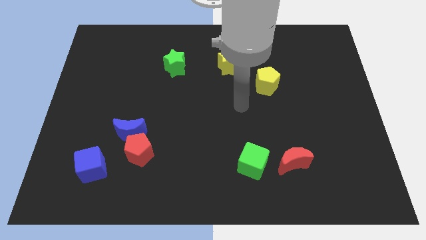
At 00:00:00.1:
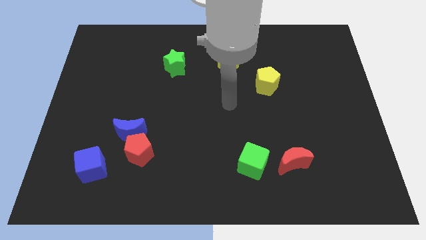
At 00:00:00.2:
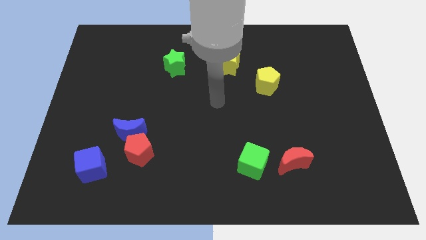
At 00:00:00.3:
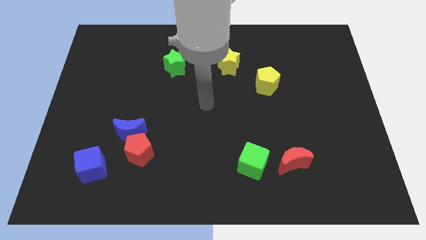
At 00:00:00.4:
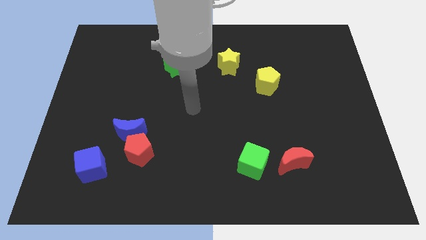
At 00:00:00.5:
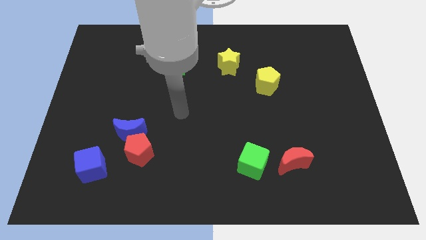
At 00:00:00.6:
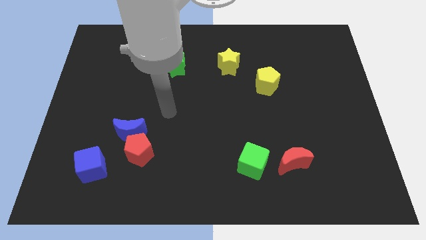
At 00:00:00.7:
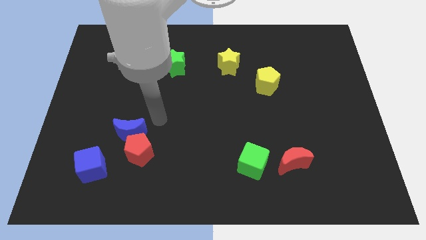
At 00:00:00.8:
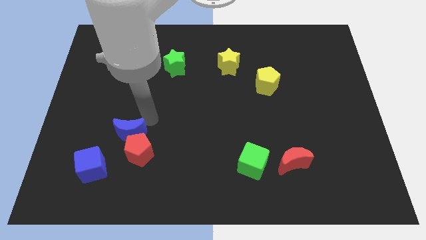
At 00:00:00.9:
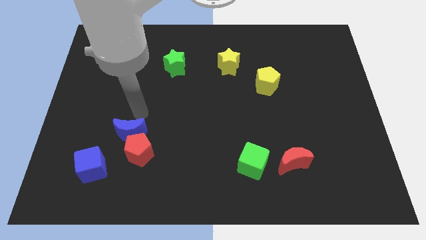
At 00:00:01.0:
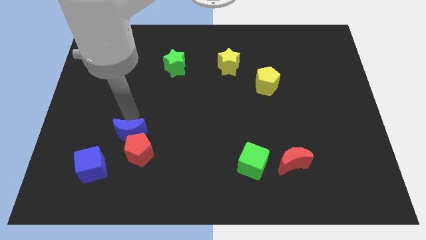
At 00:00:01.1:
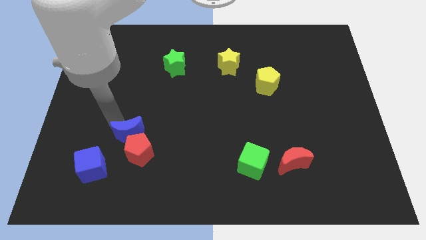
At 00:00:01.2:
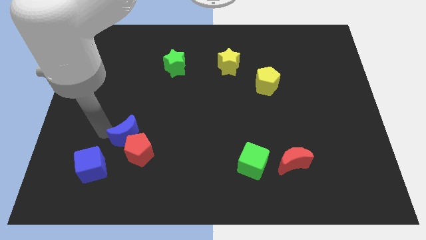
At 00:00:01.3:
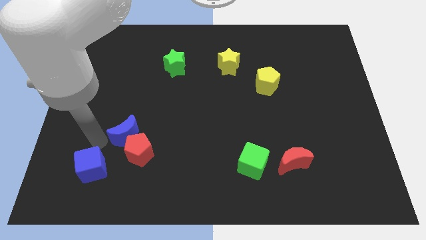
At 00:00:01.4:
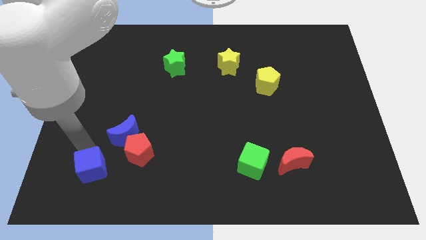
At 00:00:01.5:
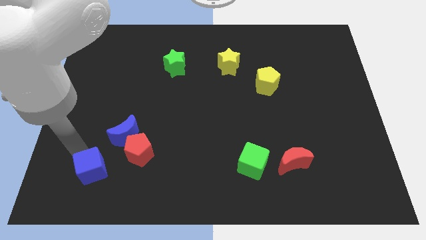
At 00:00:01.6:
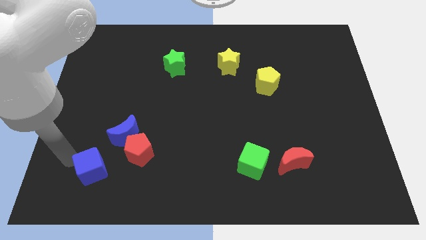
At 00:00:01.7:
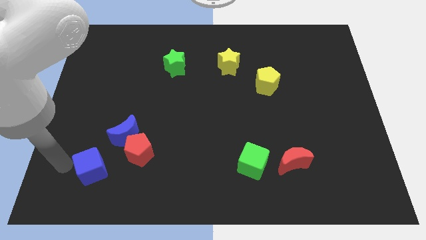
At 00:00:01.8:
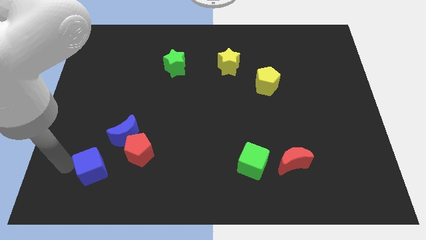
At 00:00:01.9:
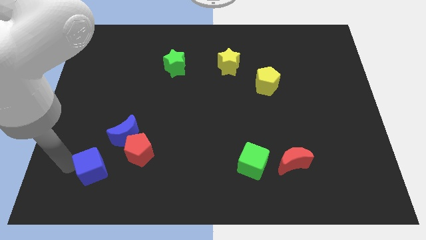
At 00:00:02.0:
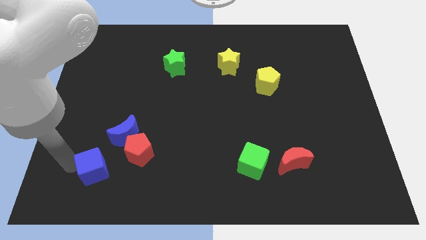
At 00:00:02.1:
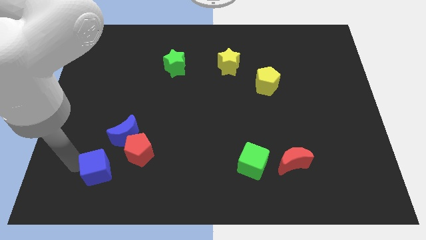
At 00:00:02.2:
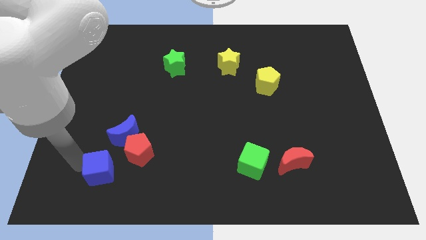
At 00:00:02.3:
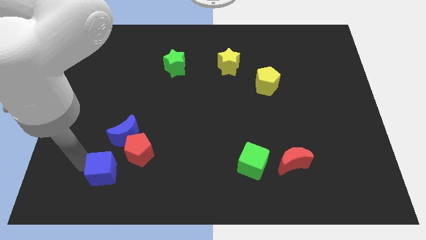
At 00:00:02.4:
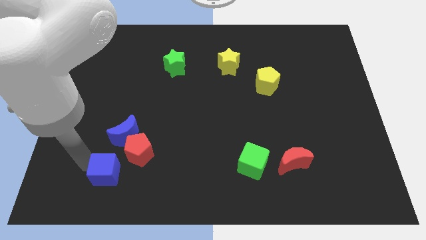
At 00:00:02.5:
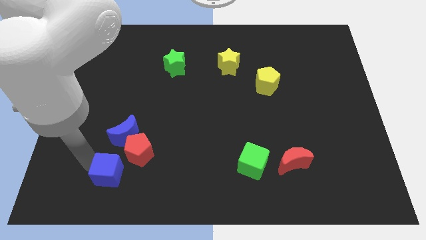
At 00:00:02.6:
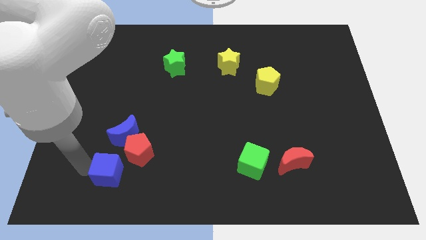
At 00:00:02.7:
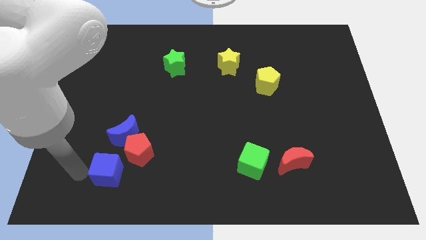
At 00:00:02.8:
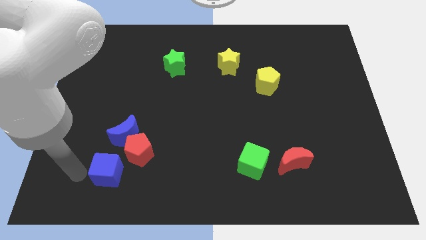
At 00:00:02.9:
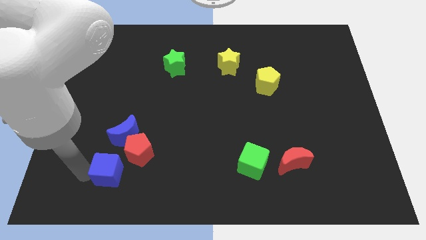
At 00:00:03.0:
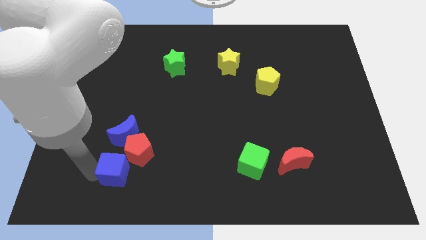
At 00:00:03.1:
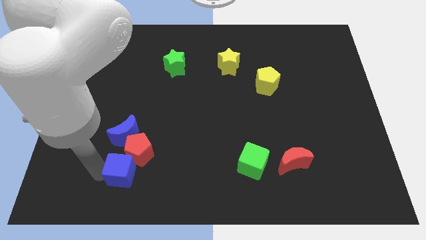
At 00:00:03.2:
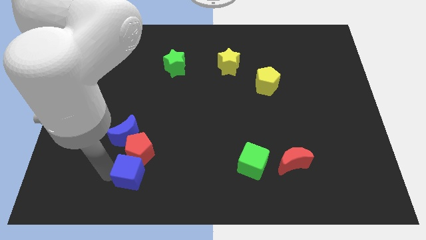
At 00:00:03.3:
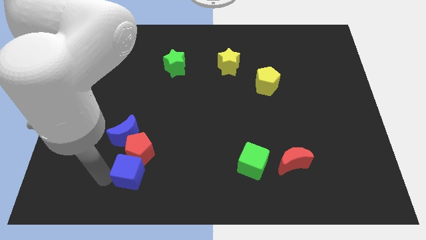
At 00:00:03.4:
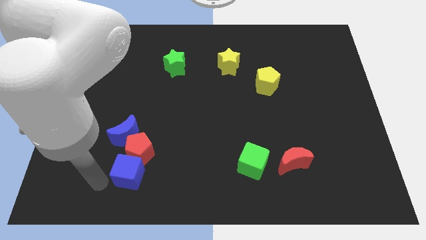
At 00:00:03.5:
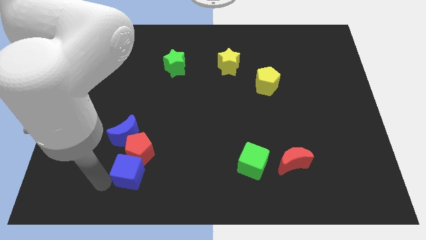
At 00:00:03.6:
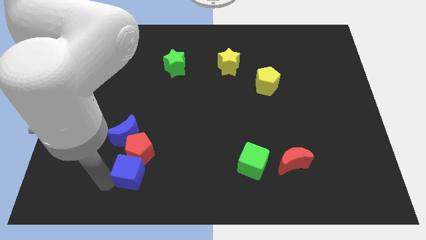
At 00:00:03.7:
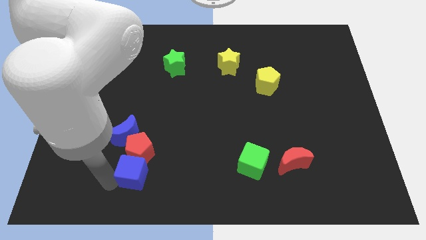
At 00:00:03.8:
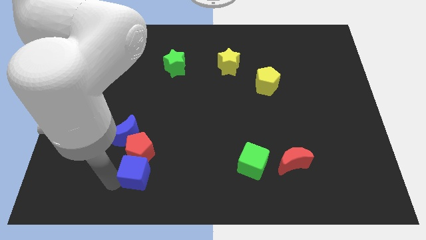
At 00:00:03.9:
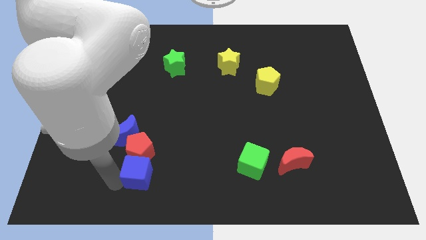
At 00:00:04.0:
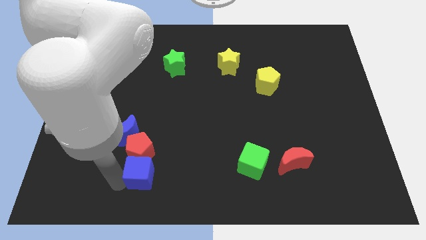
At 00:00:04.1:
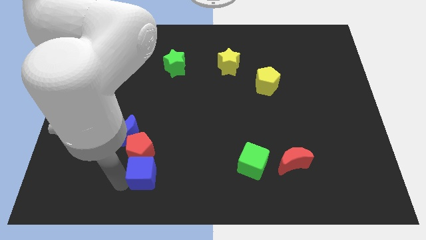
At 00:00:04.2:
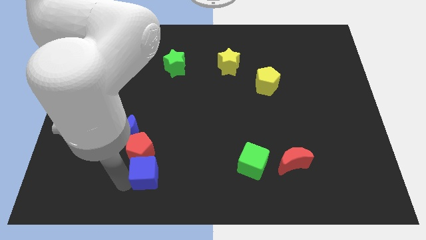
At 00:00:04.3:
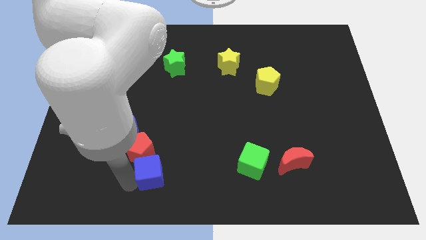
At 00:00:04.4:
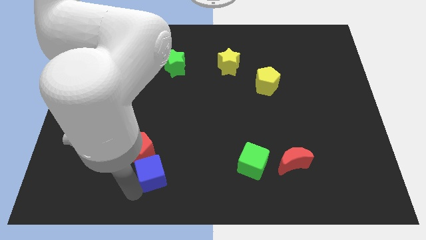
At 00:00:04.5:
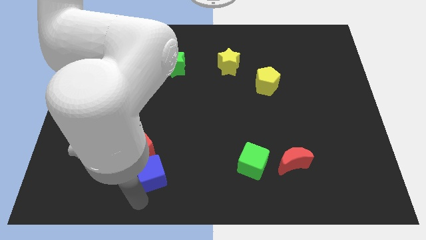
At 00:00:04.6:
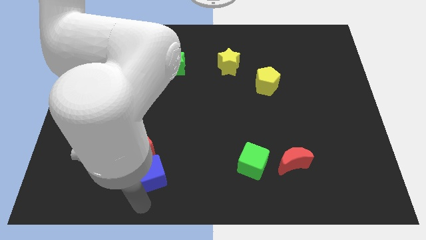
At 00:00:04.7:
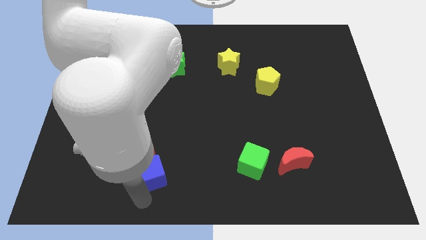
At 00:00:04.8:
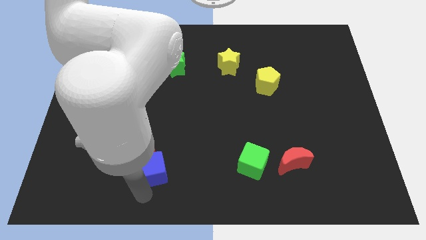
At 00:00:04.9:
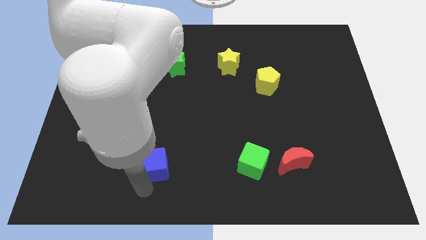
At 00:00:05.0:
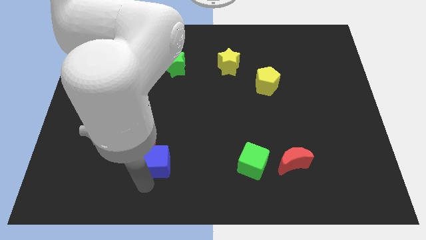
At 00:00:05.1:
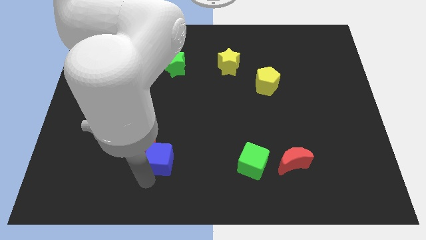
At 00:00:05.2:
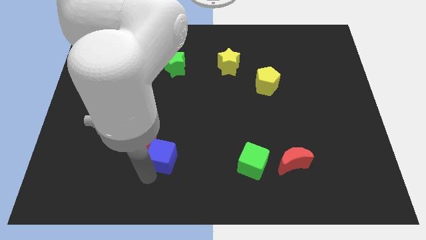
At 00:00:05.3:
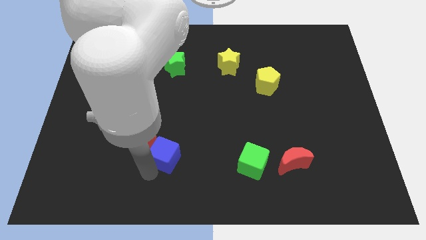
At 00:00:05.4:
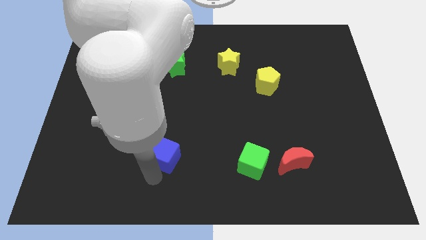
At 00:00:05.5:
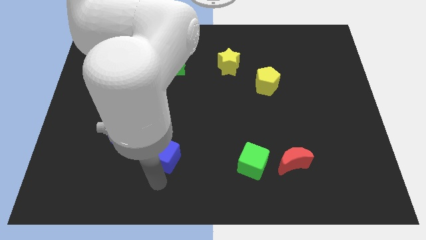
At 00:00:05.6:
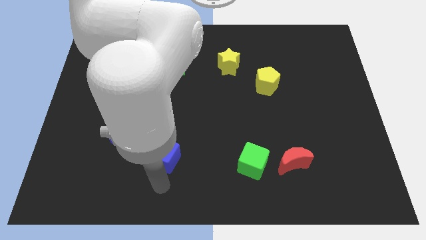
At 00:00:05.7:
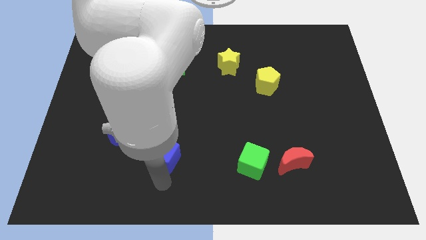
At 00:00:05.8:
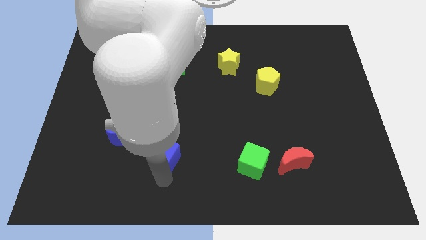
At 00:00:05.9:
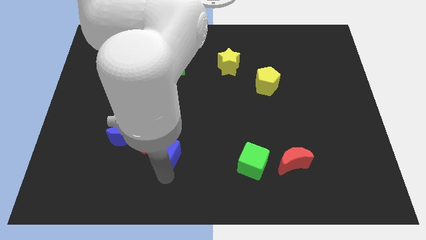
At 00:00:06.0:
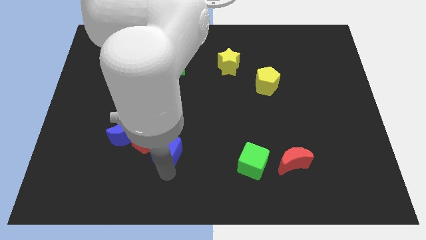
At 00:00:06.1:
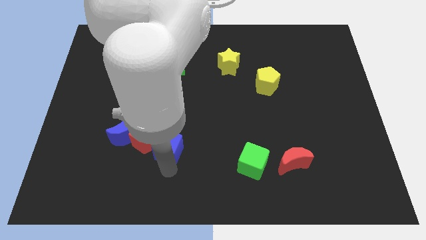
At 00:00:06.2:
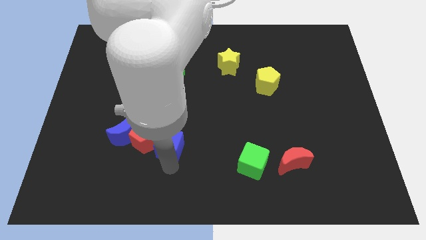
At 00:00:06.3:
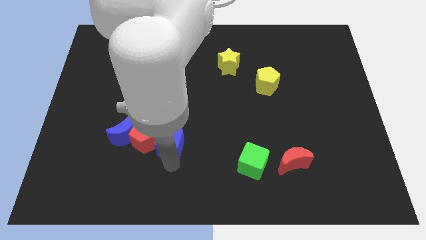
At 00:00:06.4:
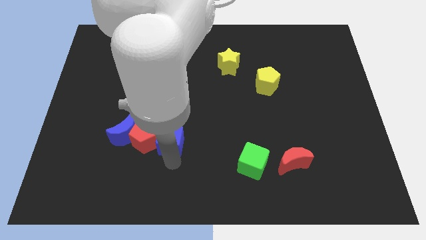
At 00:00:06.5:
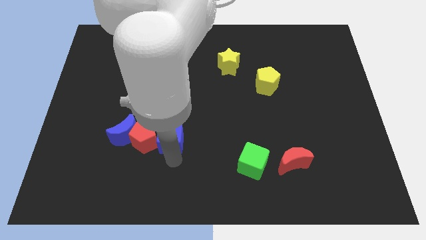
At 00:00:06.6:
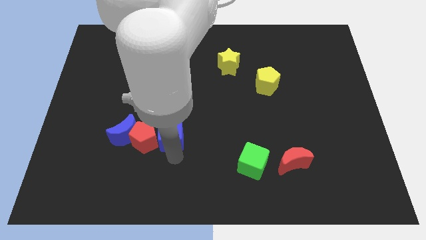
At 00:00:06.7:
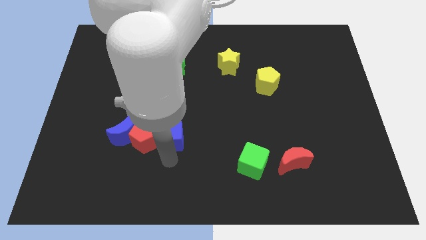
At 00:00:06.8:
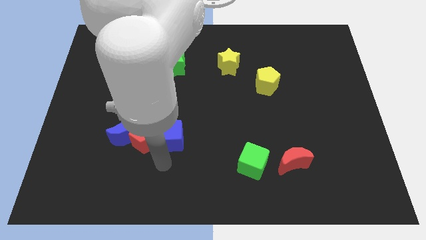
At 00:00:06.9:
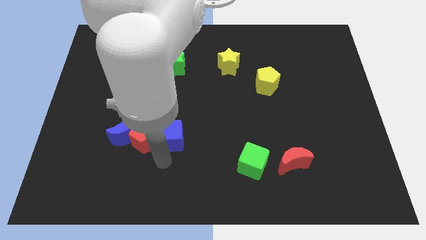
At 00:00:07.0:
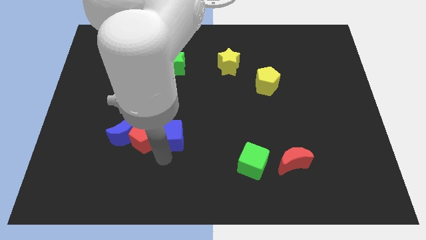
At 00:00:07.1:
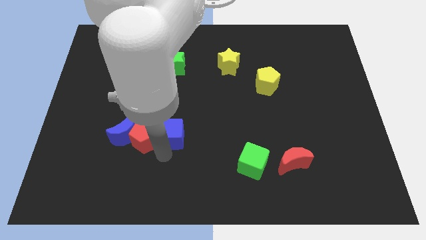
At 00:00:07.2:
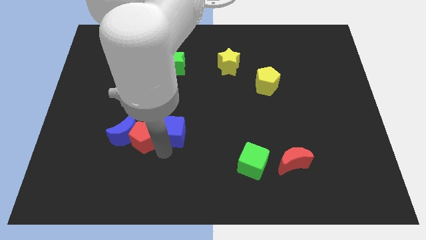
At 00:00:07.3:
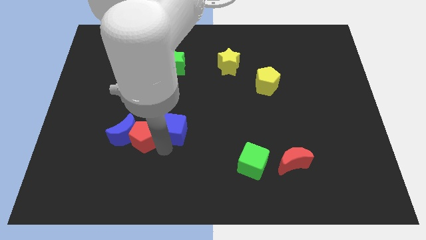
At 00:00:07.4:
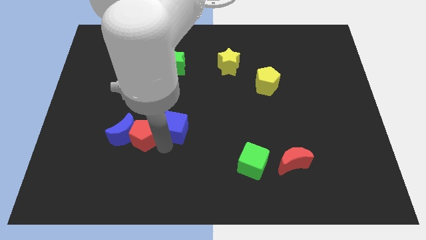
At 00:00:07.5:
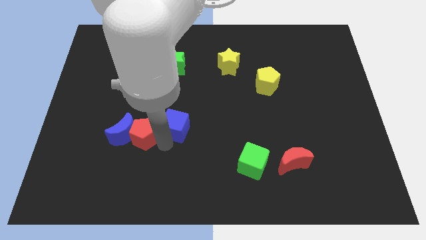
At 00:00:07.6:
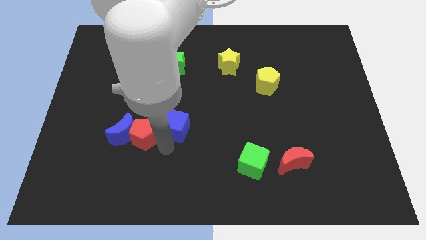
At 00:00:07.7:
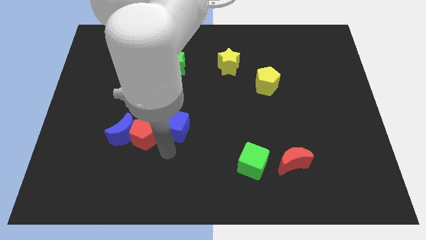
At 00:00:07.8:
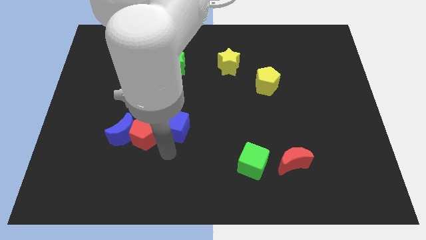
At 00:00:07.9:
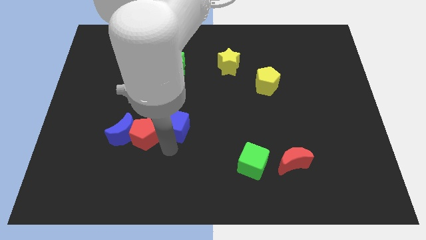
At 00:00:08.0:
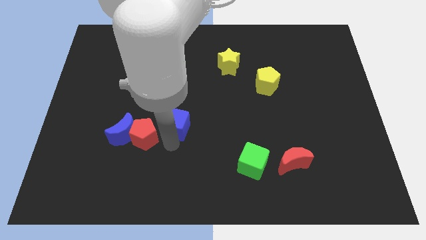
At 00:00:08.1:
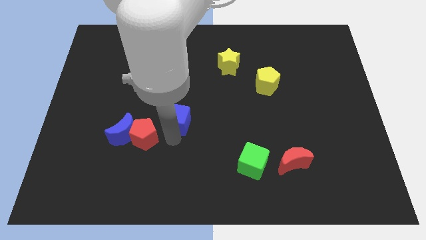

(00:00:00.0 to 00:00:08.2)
move the blue cube up and to the right diagonally

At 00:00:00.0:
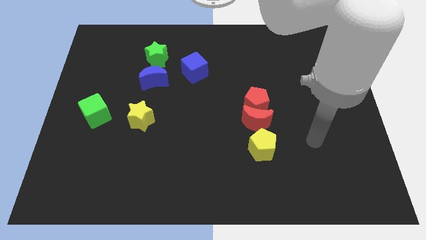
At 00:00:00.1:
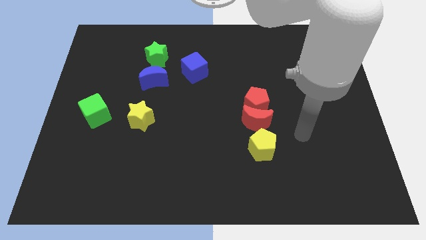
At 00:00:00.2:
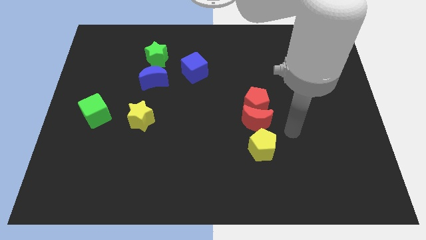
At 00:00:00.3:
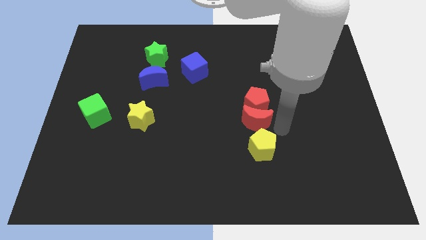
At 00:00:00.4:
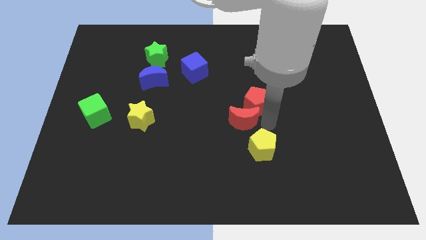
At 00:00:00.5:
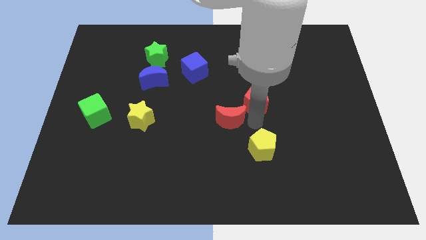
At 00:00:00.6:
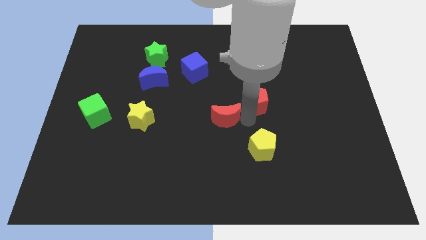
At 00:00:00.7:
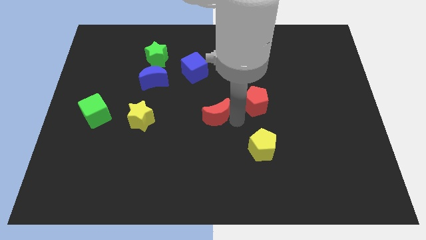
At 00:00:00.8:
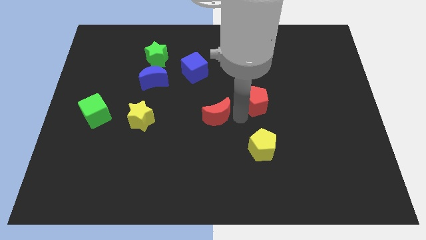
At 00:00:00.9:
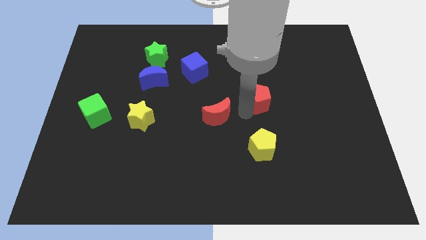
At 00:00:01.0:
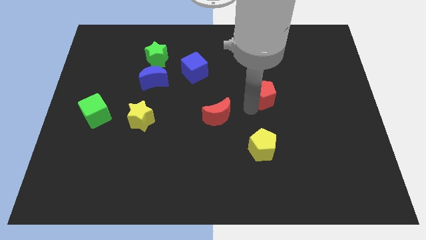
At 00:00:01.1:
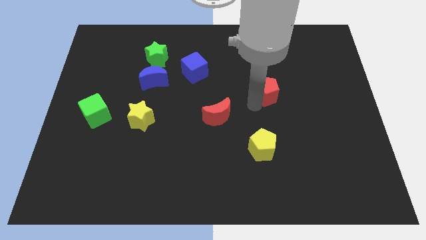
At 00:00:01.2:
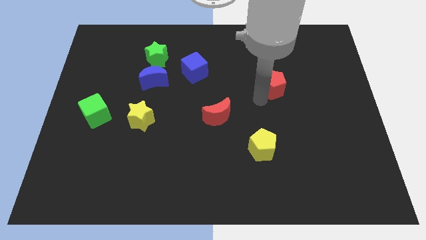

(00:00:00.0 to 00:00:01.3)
slide the red pentagon up and then to the right a little bit
